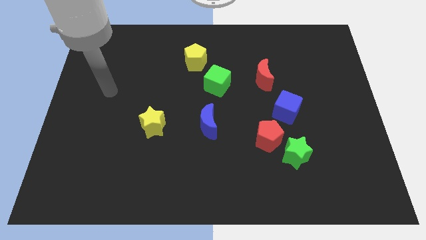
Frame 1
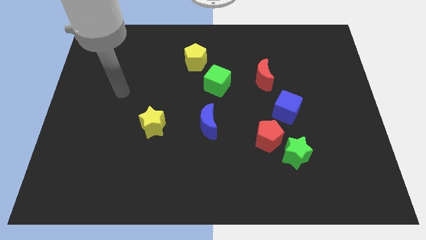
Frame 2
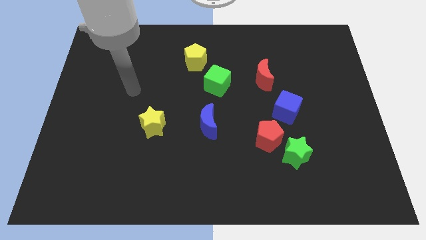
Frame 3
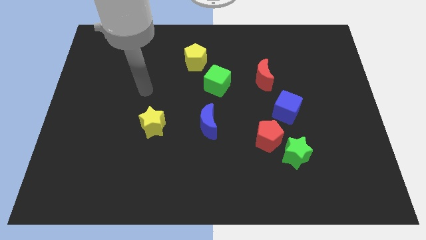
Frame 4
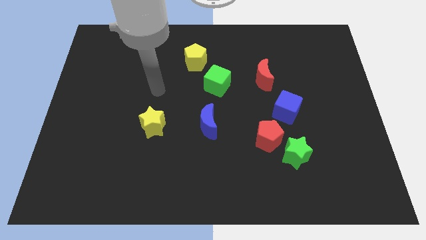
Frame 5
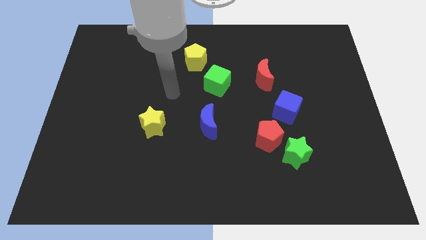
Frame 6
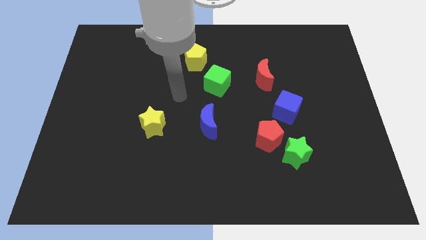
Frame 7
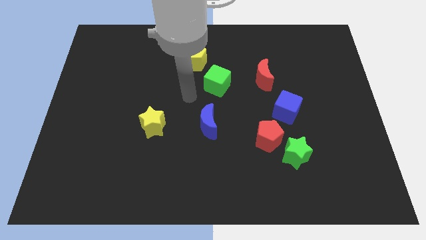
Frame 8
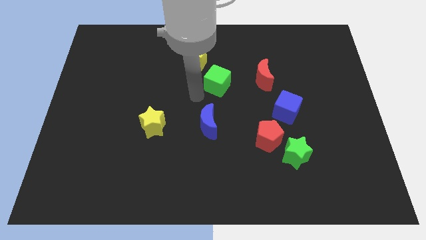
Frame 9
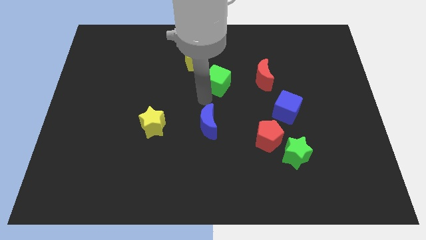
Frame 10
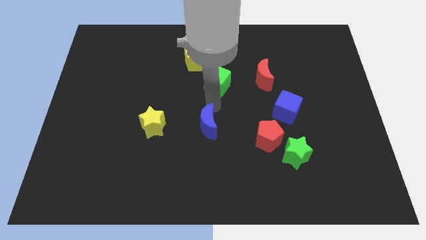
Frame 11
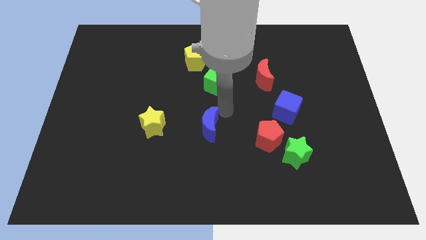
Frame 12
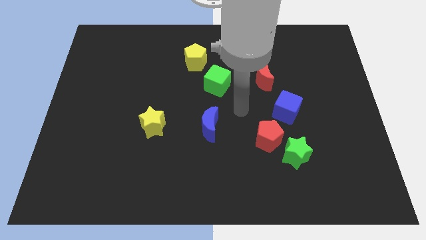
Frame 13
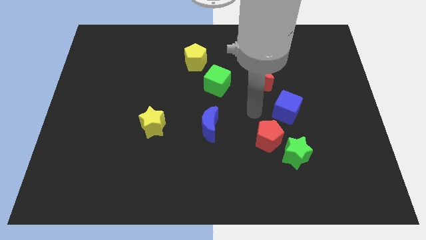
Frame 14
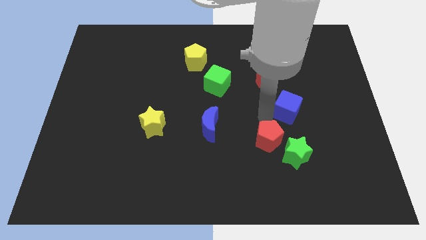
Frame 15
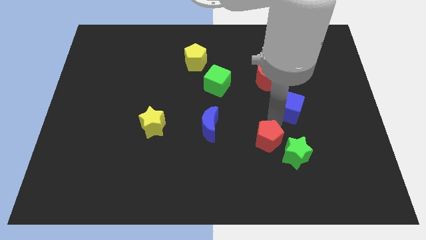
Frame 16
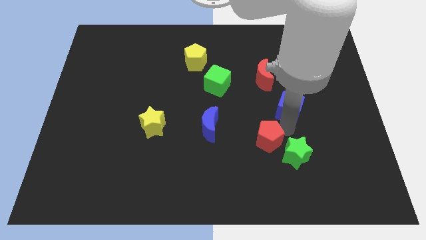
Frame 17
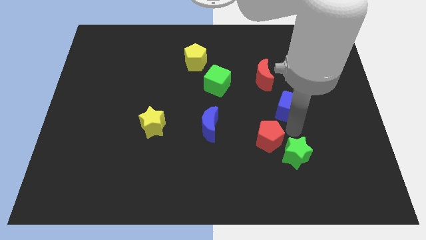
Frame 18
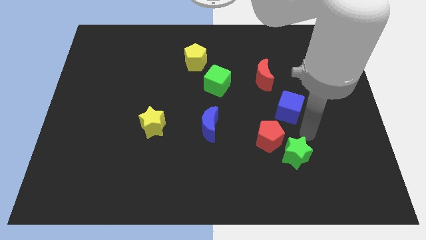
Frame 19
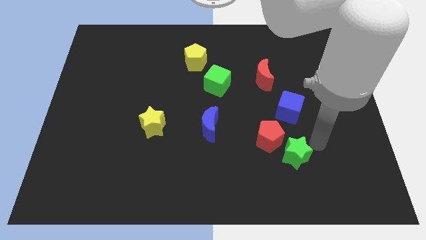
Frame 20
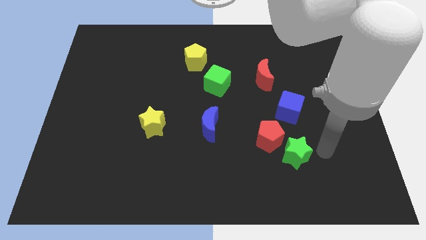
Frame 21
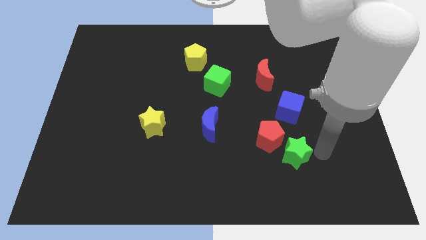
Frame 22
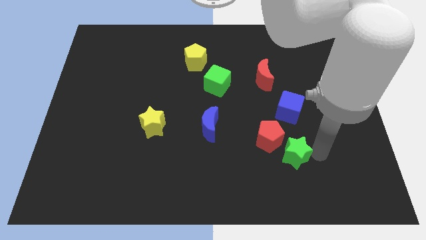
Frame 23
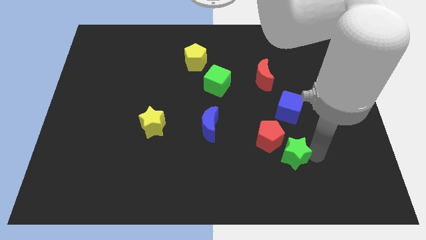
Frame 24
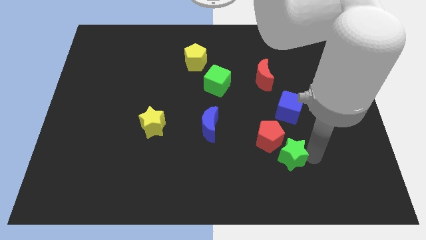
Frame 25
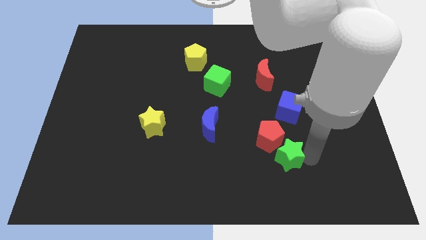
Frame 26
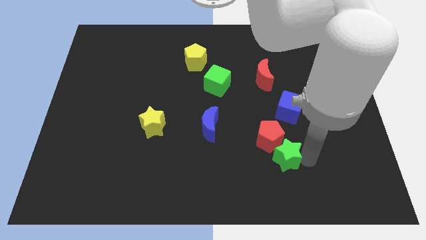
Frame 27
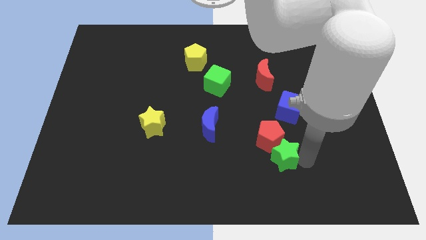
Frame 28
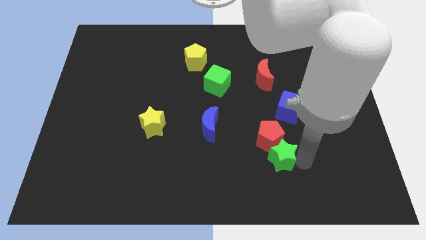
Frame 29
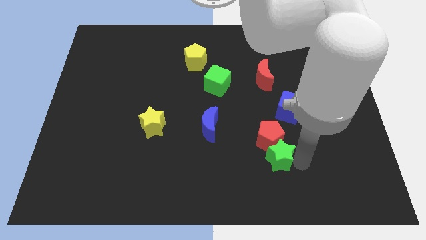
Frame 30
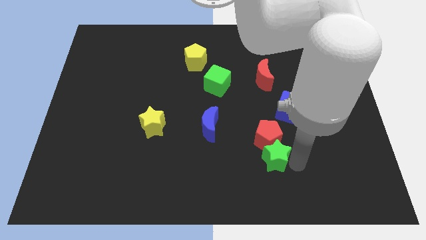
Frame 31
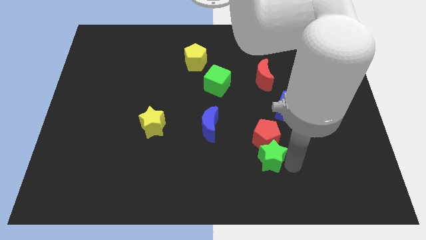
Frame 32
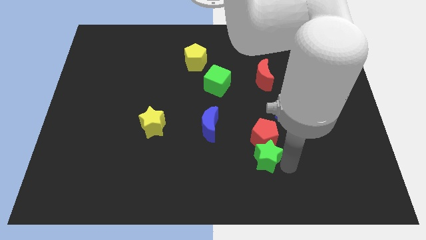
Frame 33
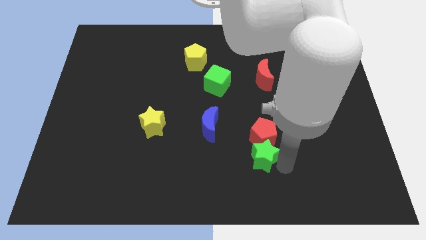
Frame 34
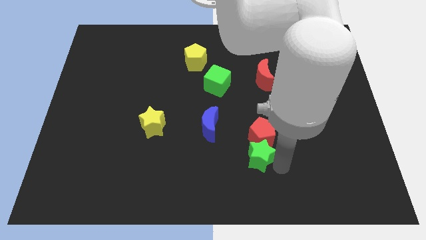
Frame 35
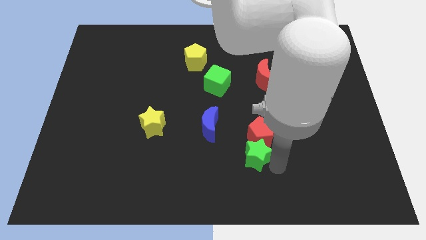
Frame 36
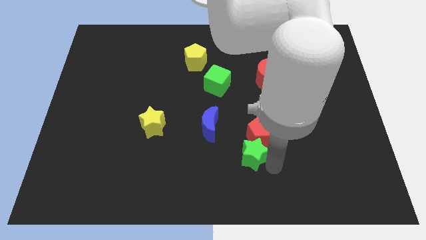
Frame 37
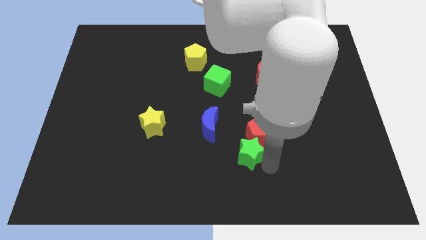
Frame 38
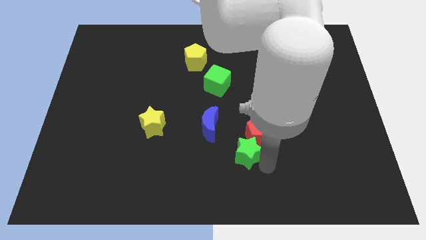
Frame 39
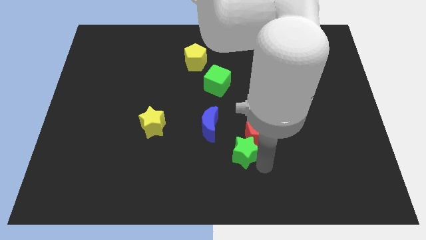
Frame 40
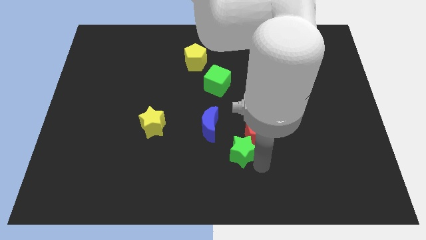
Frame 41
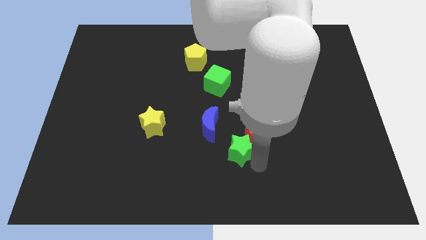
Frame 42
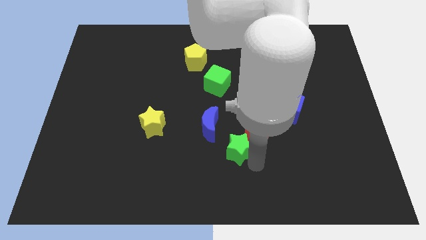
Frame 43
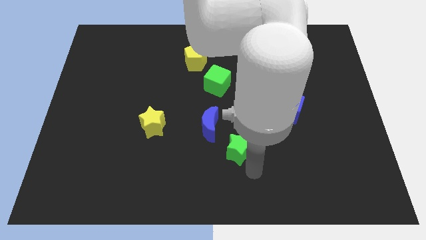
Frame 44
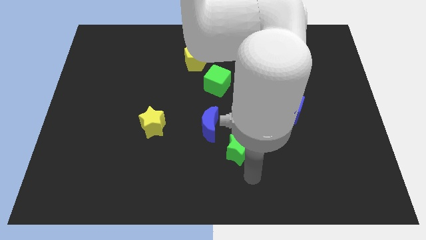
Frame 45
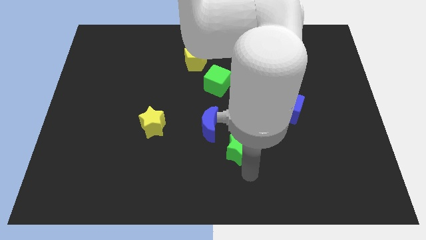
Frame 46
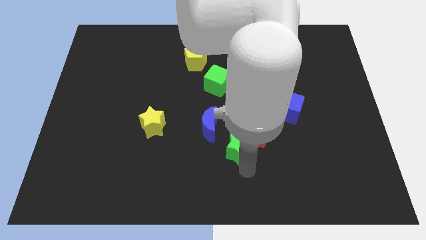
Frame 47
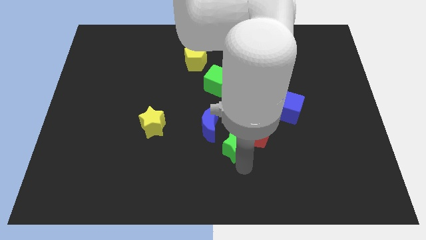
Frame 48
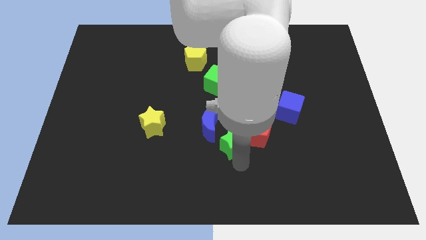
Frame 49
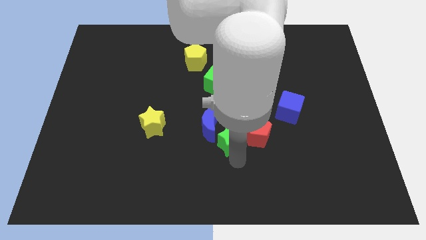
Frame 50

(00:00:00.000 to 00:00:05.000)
put the green star to the middle

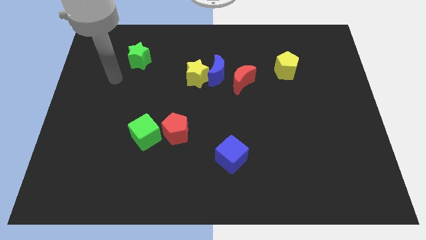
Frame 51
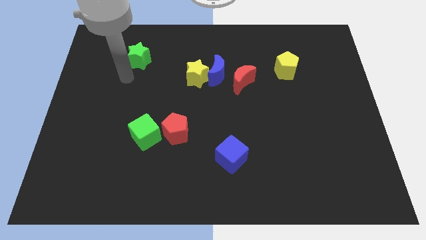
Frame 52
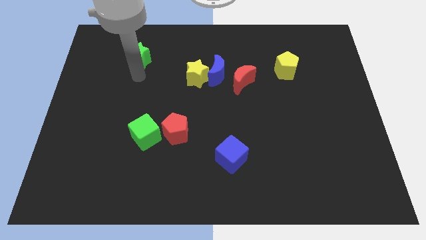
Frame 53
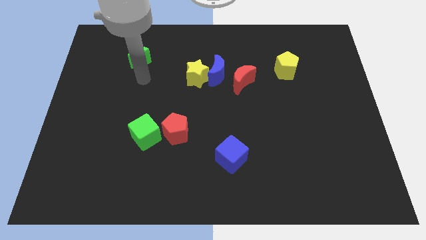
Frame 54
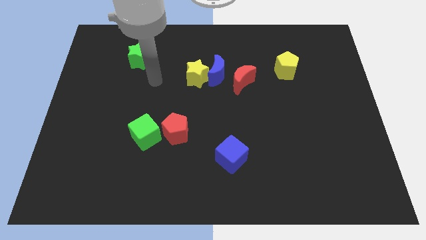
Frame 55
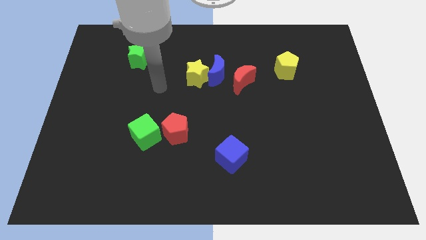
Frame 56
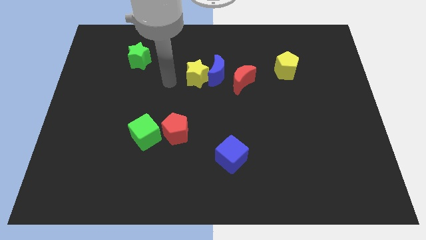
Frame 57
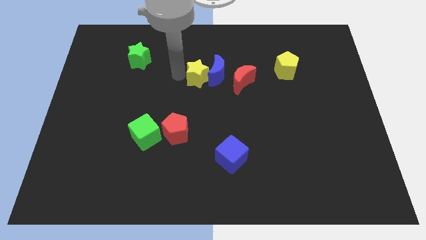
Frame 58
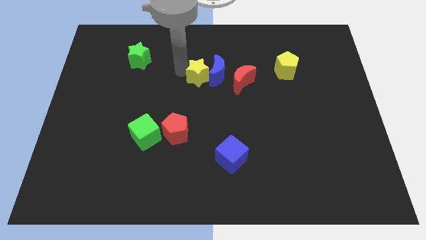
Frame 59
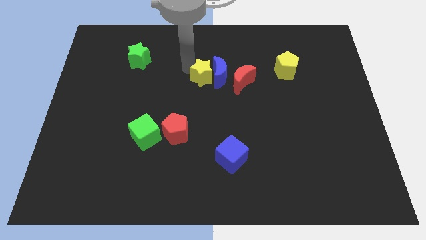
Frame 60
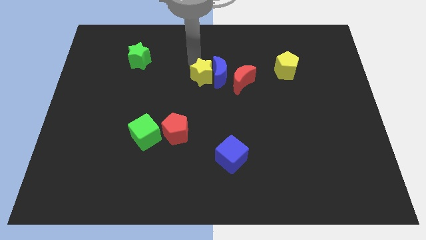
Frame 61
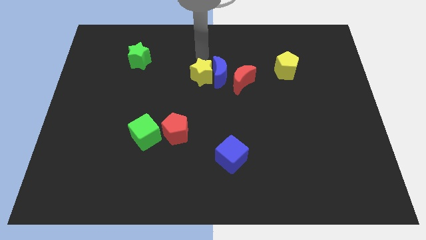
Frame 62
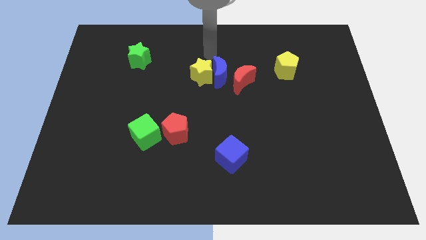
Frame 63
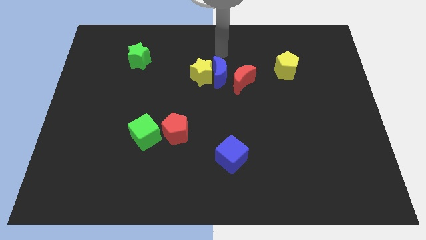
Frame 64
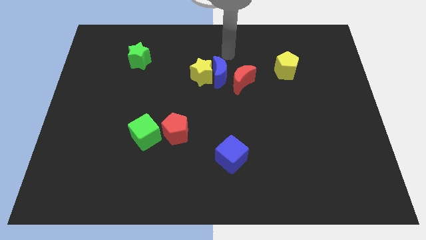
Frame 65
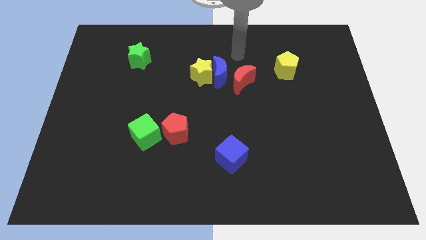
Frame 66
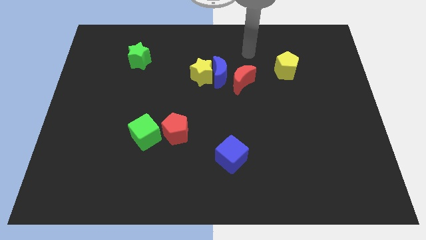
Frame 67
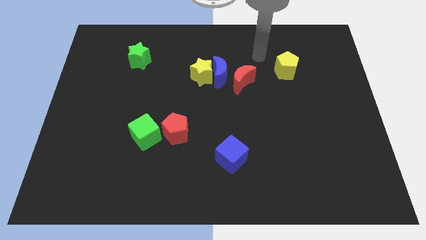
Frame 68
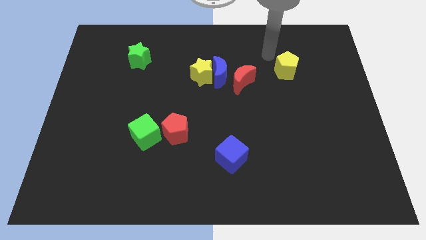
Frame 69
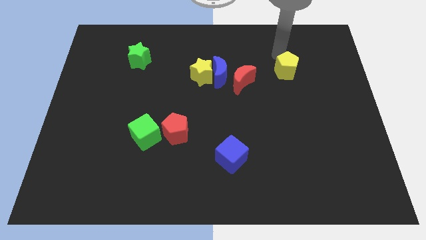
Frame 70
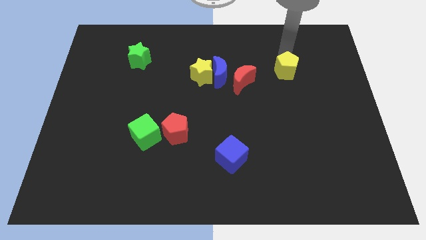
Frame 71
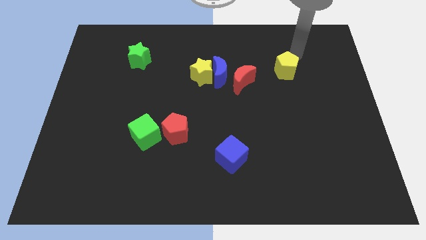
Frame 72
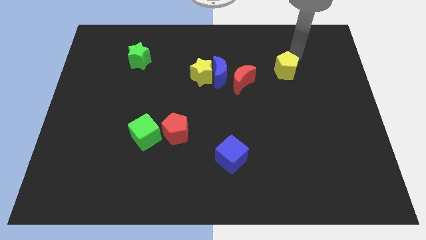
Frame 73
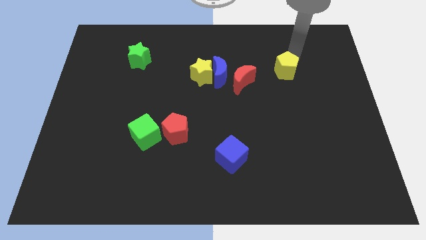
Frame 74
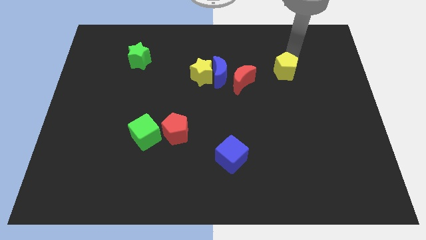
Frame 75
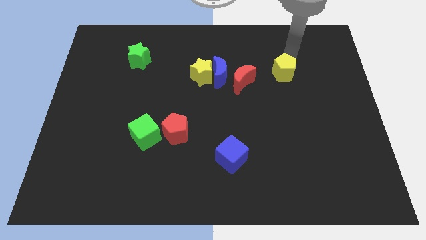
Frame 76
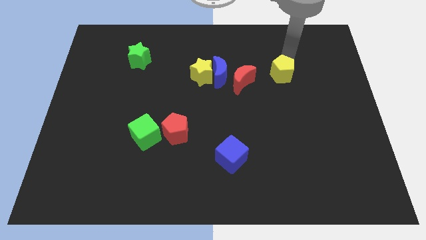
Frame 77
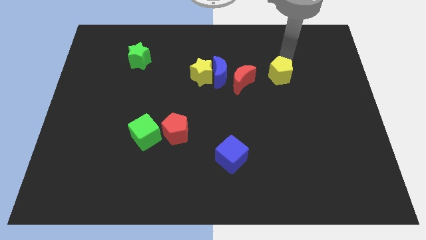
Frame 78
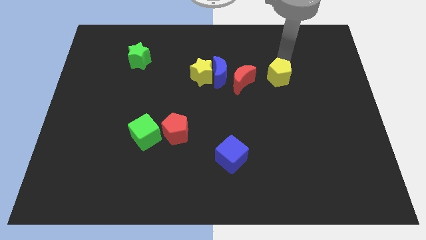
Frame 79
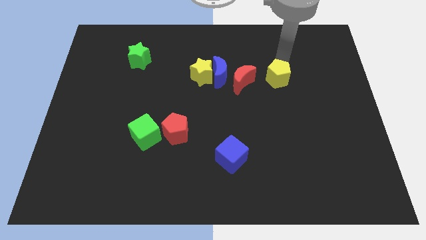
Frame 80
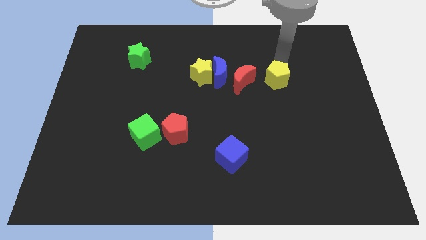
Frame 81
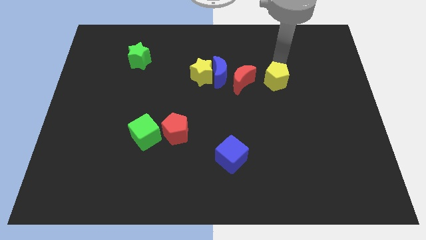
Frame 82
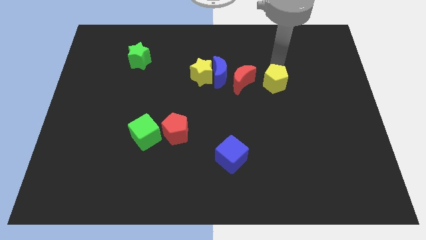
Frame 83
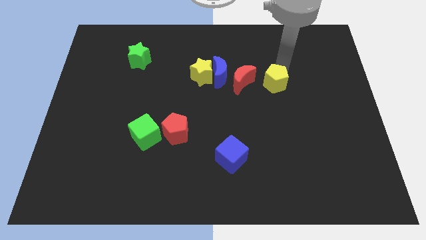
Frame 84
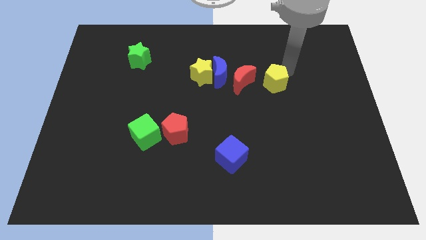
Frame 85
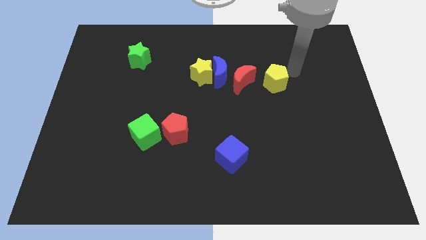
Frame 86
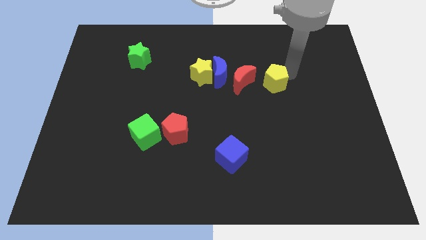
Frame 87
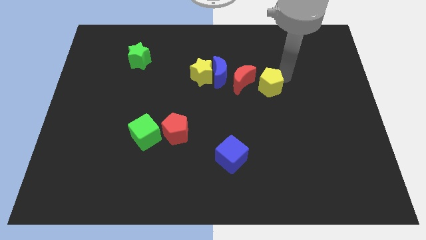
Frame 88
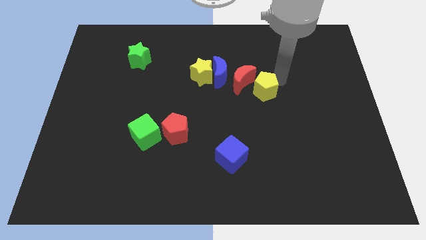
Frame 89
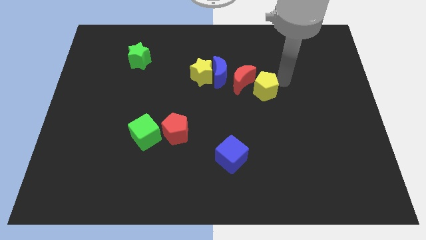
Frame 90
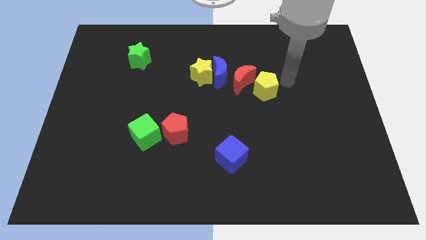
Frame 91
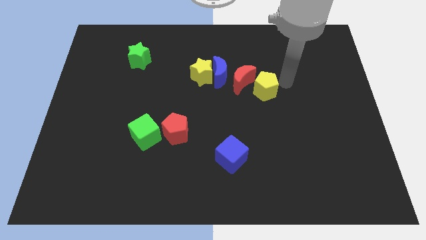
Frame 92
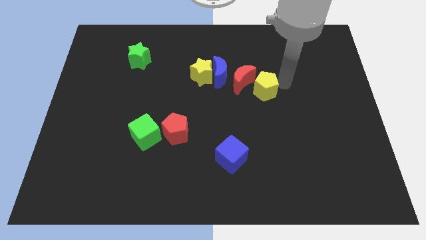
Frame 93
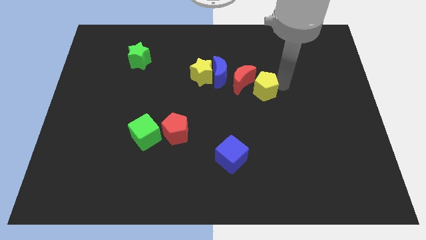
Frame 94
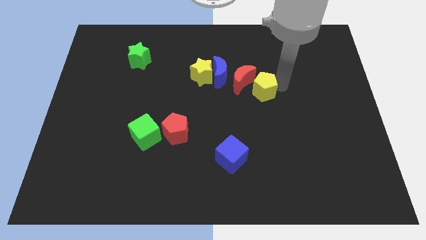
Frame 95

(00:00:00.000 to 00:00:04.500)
slide the yellow pentagon to the middle of the board
